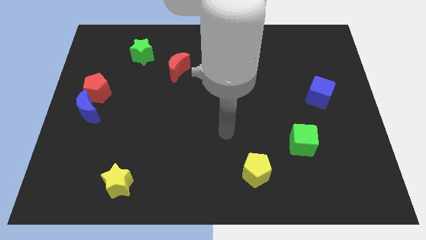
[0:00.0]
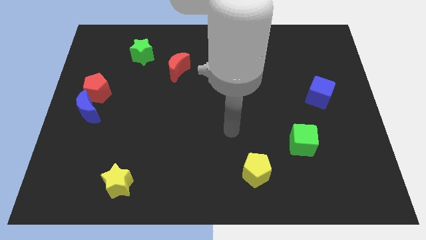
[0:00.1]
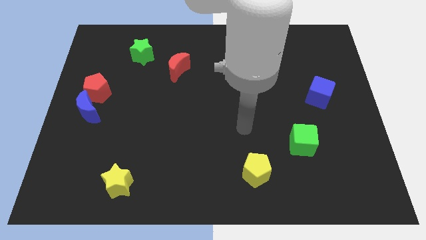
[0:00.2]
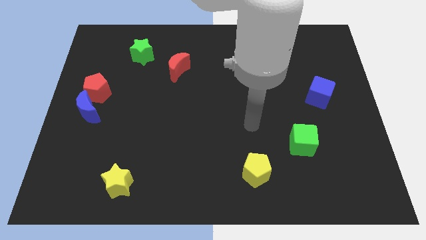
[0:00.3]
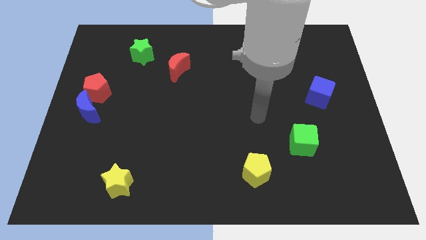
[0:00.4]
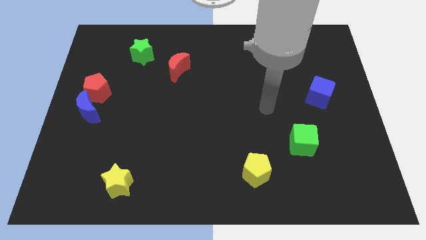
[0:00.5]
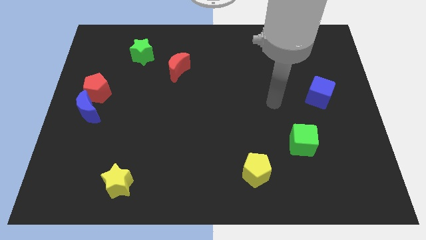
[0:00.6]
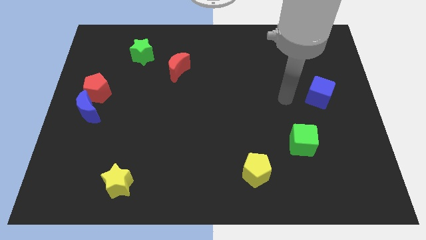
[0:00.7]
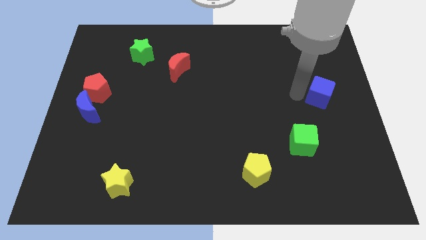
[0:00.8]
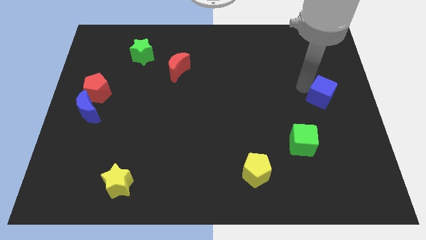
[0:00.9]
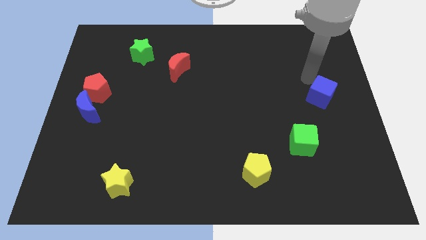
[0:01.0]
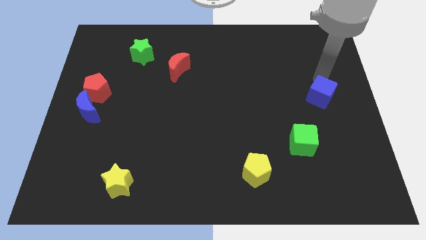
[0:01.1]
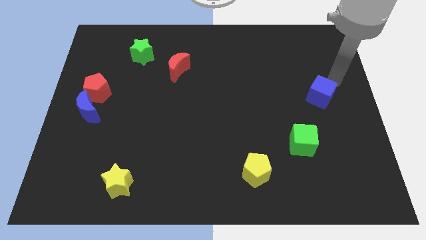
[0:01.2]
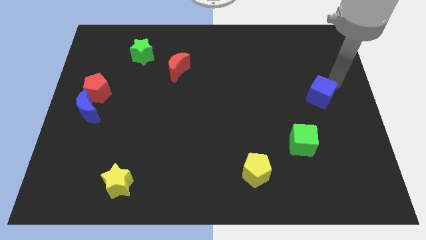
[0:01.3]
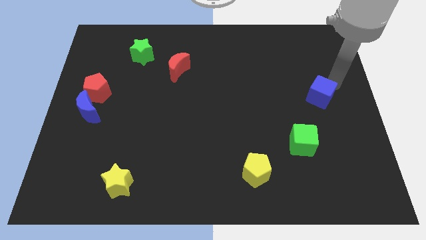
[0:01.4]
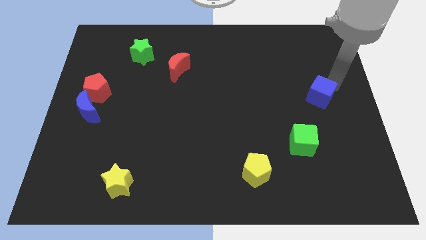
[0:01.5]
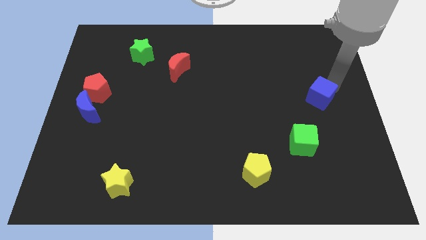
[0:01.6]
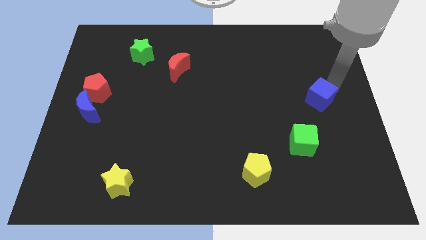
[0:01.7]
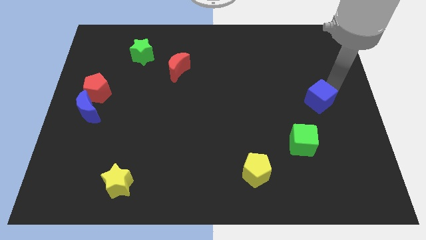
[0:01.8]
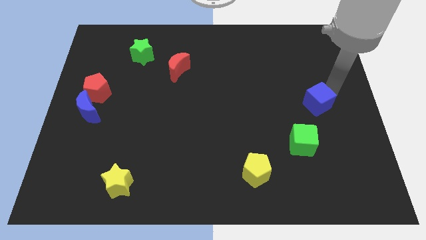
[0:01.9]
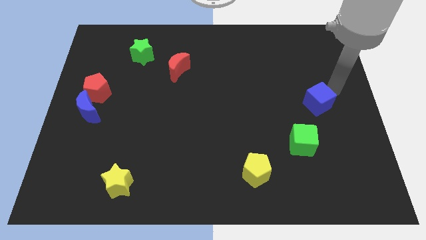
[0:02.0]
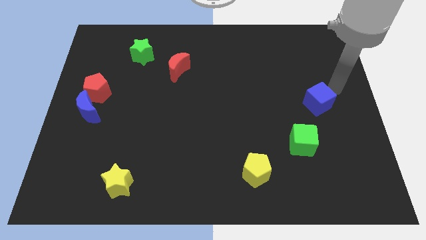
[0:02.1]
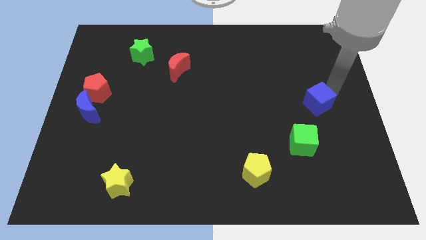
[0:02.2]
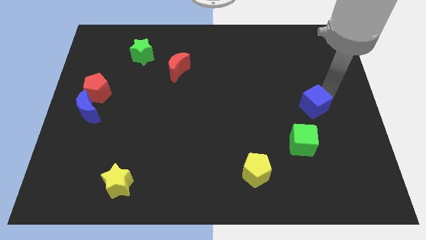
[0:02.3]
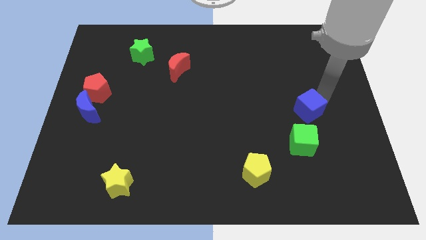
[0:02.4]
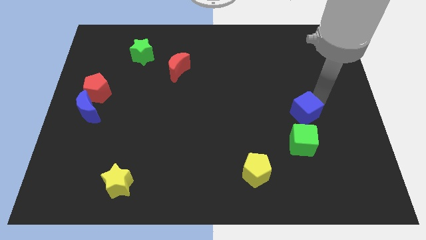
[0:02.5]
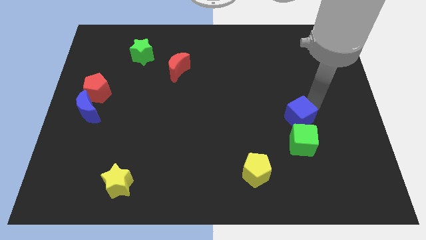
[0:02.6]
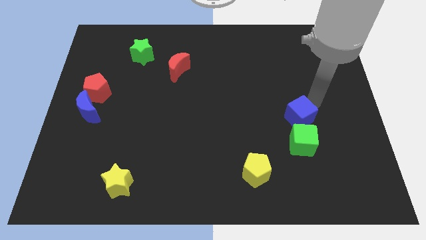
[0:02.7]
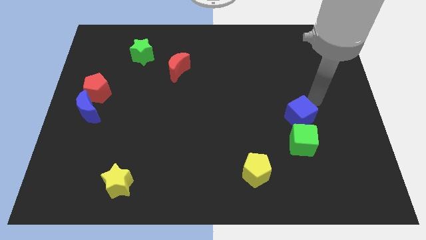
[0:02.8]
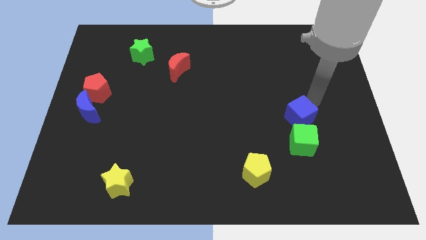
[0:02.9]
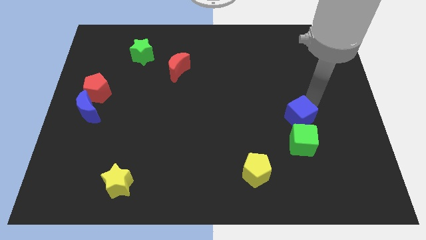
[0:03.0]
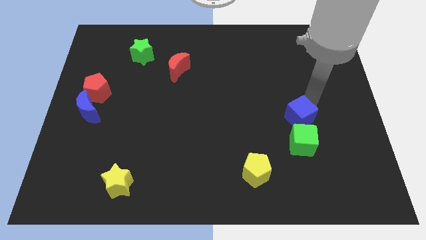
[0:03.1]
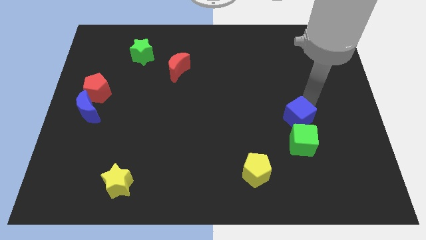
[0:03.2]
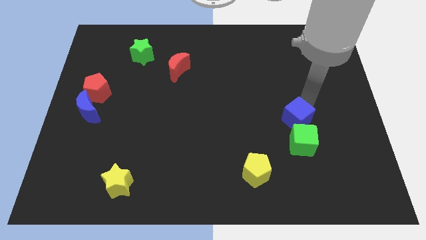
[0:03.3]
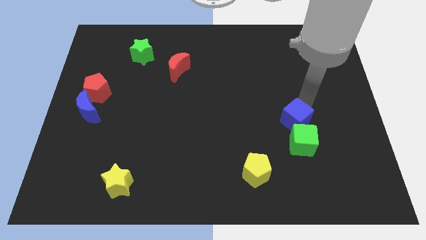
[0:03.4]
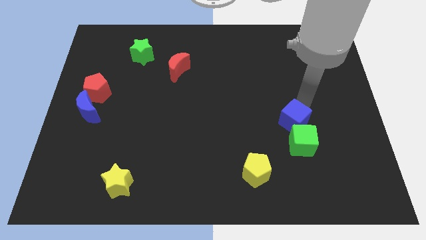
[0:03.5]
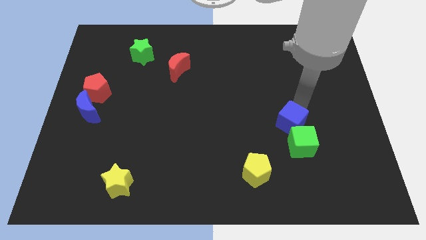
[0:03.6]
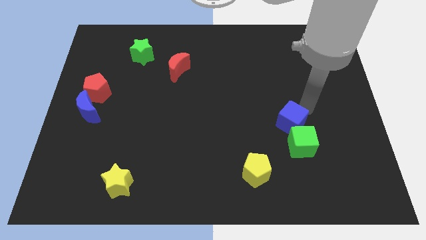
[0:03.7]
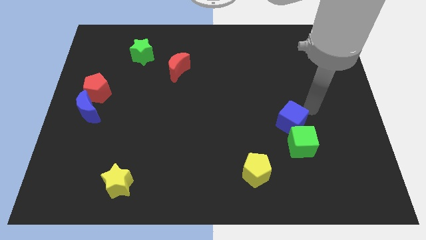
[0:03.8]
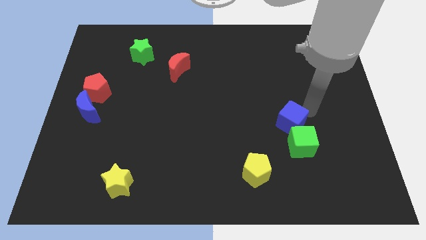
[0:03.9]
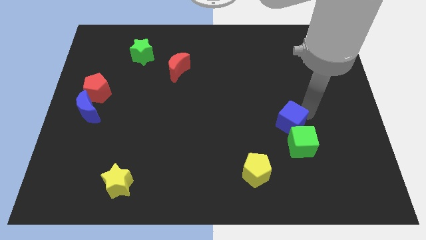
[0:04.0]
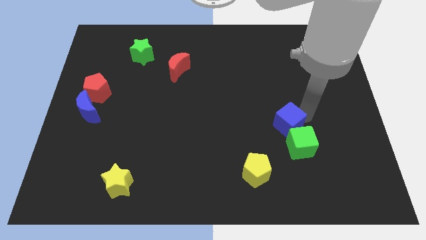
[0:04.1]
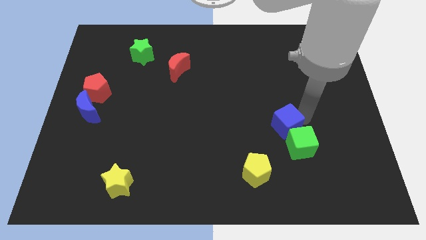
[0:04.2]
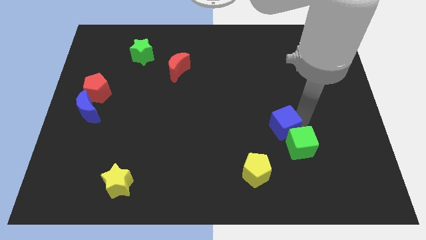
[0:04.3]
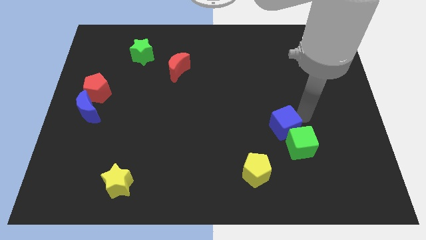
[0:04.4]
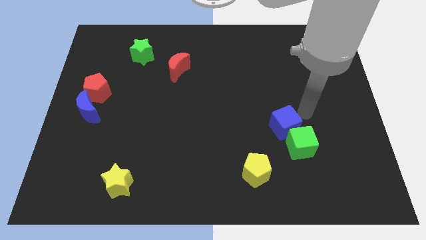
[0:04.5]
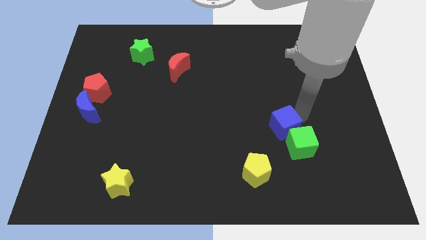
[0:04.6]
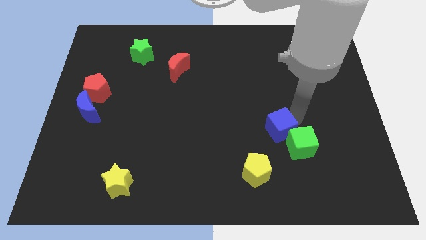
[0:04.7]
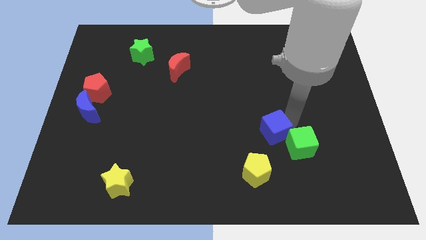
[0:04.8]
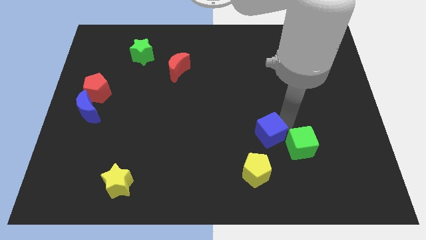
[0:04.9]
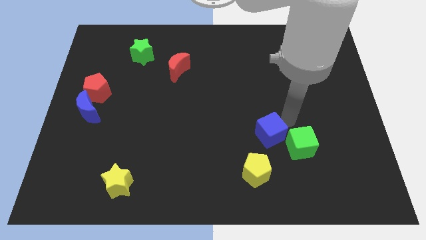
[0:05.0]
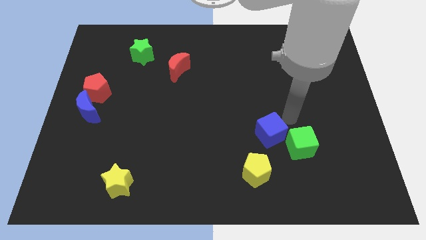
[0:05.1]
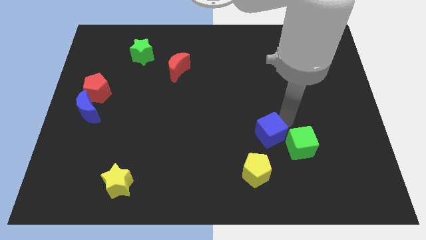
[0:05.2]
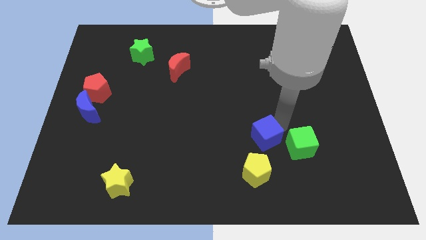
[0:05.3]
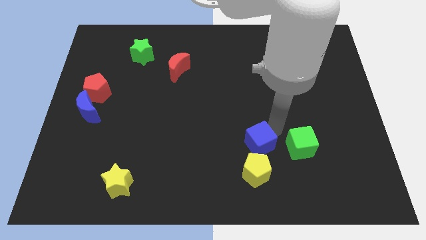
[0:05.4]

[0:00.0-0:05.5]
push the blue cube down and left

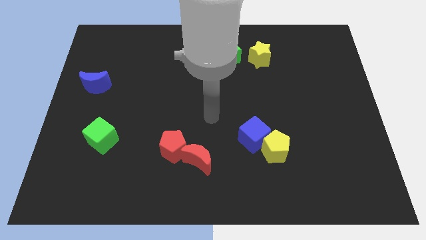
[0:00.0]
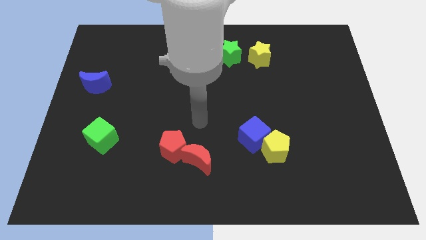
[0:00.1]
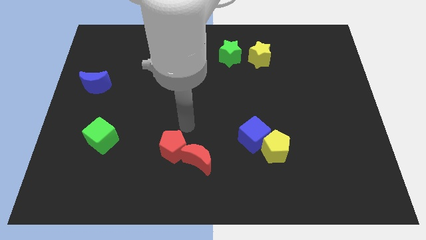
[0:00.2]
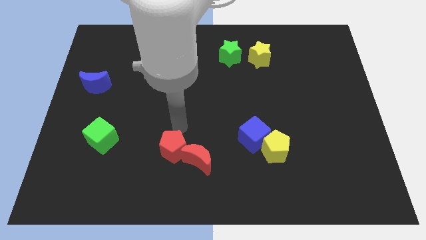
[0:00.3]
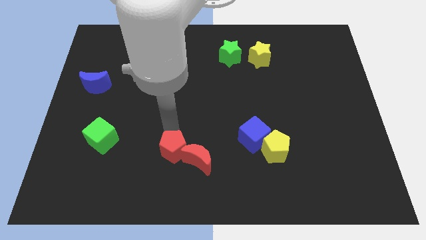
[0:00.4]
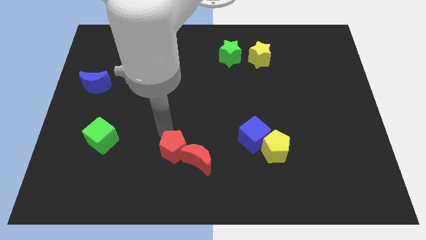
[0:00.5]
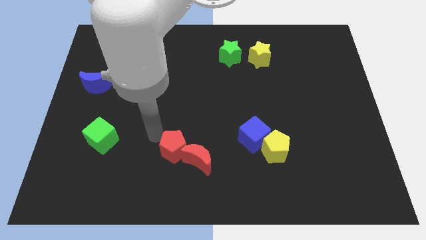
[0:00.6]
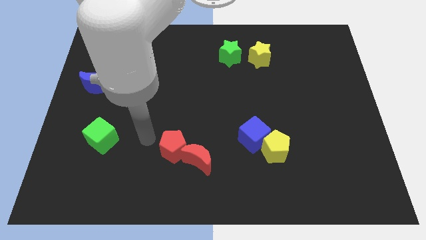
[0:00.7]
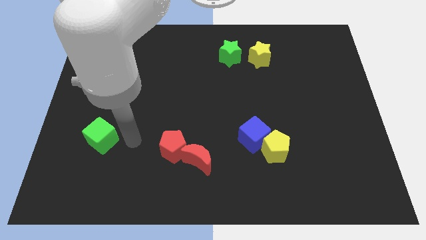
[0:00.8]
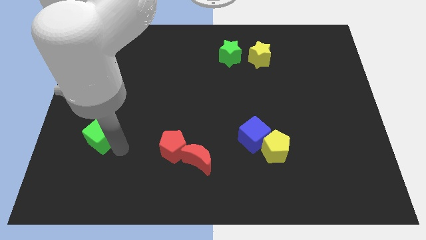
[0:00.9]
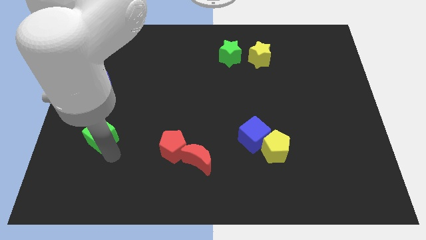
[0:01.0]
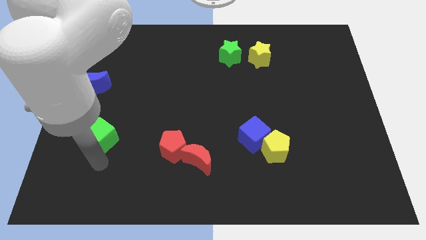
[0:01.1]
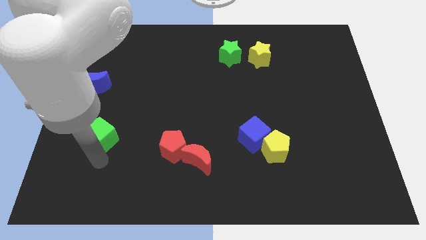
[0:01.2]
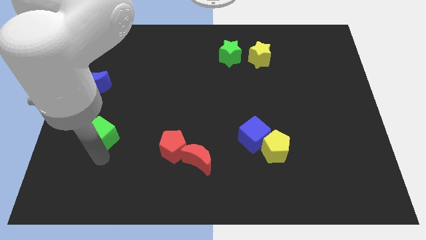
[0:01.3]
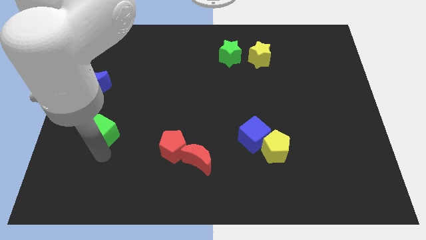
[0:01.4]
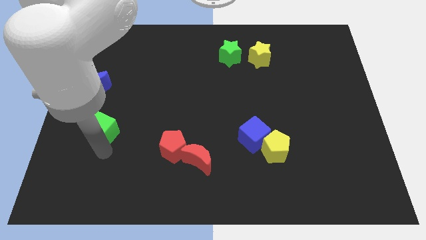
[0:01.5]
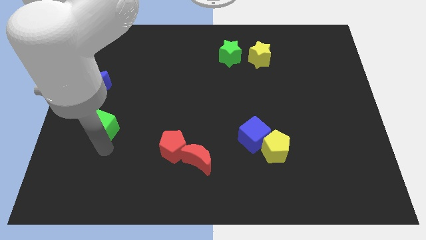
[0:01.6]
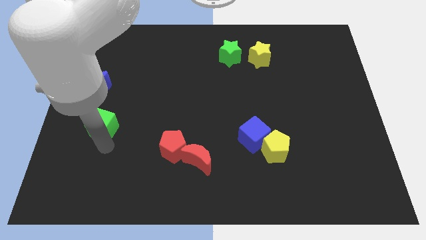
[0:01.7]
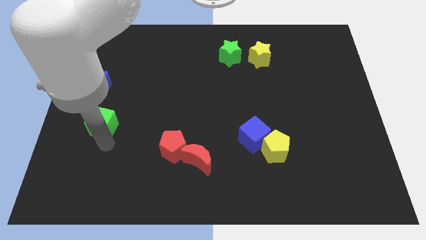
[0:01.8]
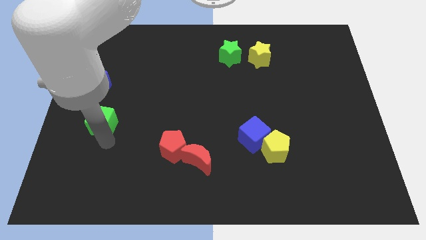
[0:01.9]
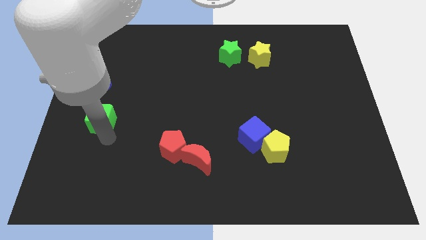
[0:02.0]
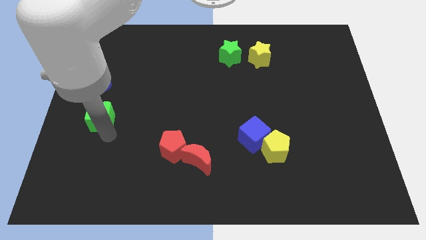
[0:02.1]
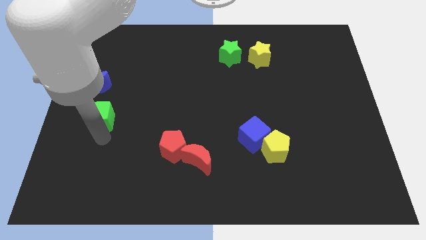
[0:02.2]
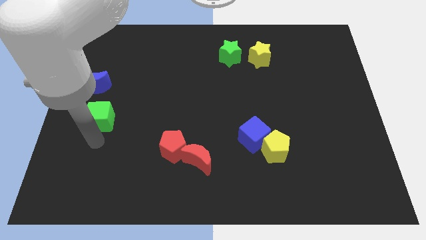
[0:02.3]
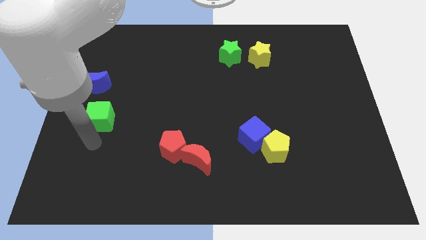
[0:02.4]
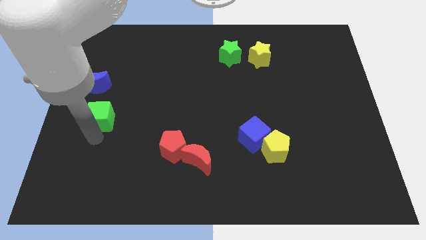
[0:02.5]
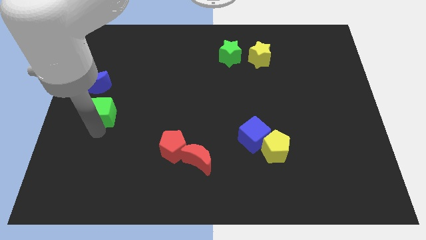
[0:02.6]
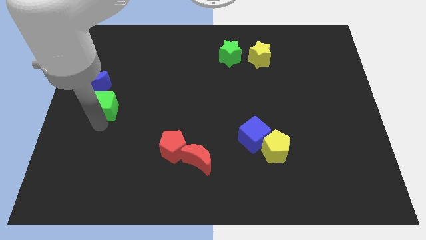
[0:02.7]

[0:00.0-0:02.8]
slide the green cube up a little
